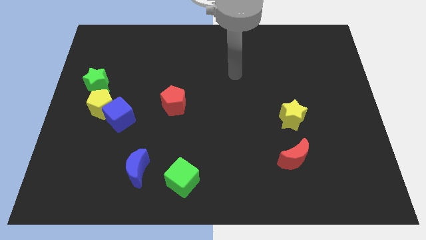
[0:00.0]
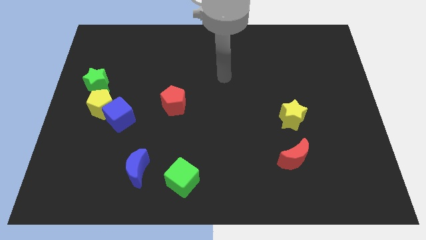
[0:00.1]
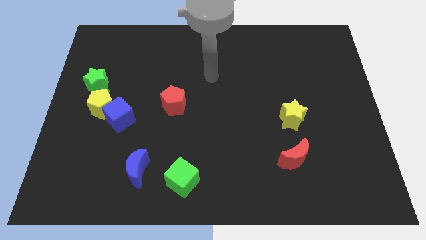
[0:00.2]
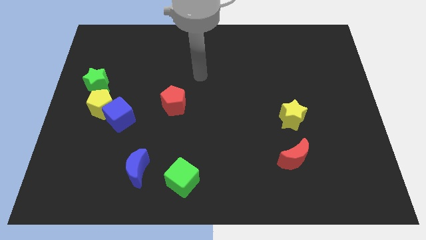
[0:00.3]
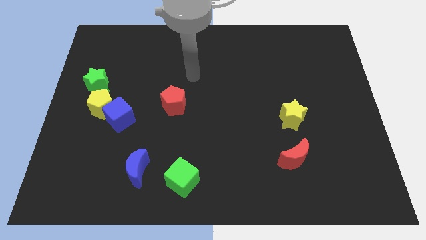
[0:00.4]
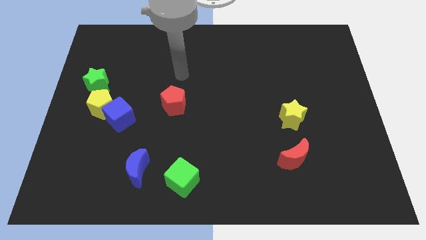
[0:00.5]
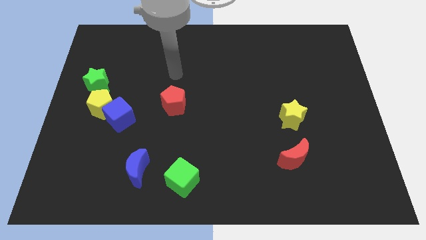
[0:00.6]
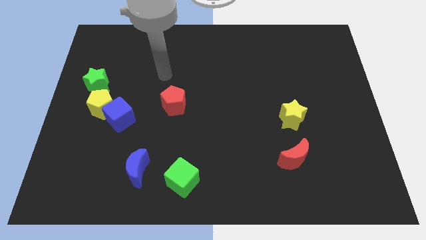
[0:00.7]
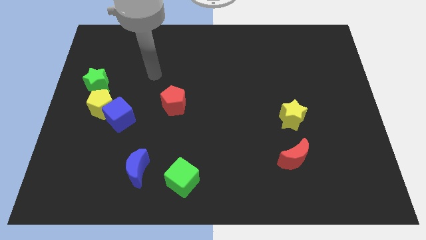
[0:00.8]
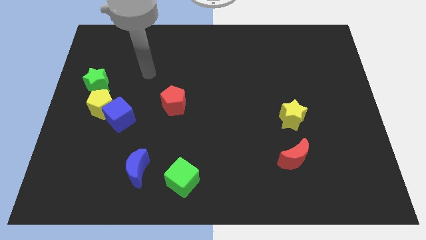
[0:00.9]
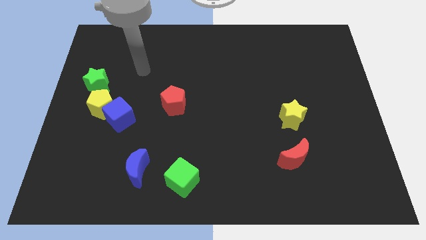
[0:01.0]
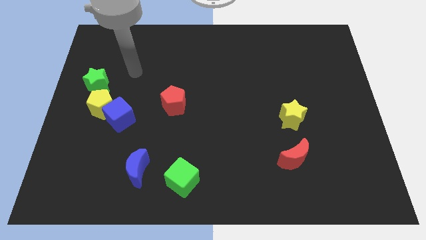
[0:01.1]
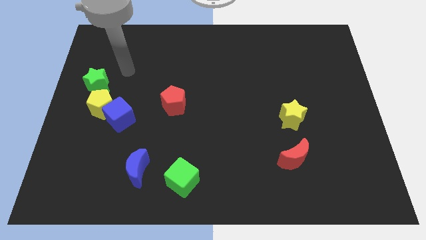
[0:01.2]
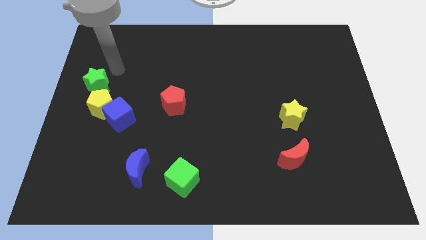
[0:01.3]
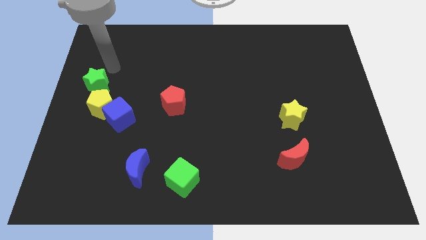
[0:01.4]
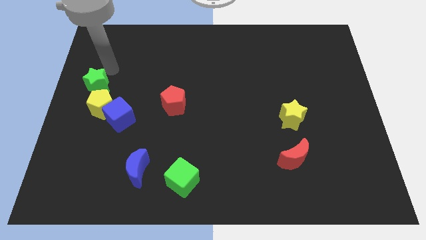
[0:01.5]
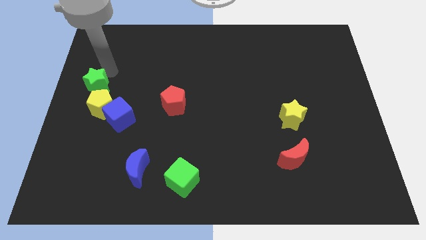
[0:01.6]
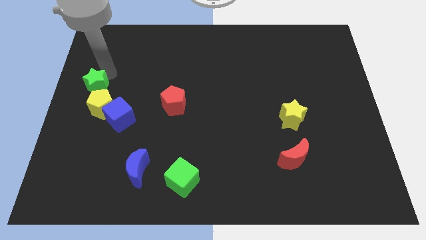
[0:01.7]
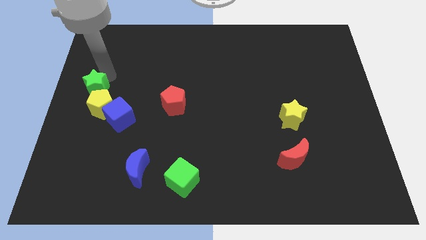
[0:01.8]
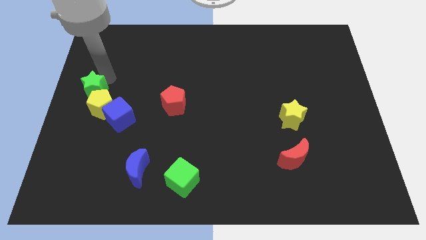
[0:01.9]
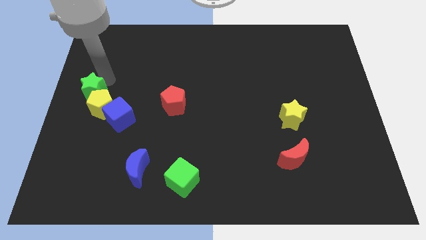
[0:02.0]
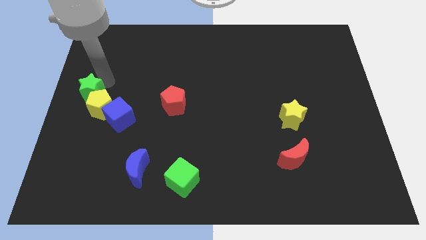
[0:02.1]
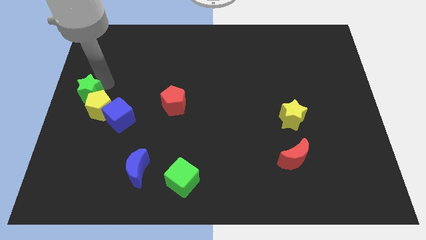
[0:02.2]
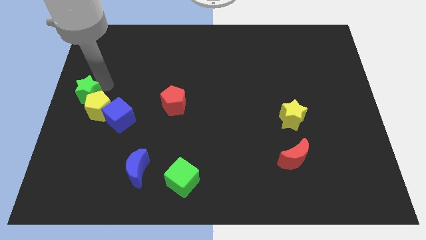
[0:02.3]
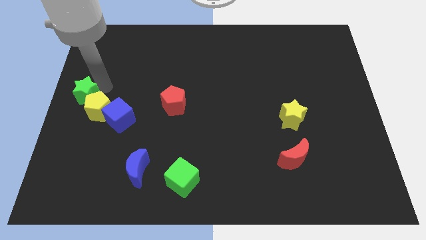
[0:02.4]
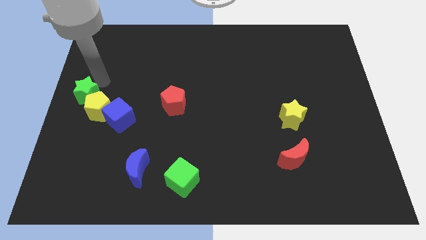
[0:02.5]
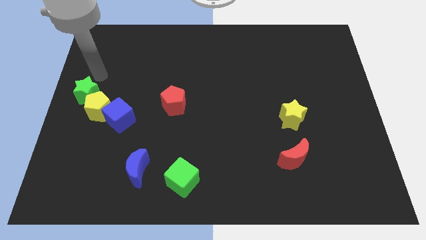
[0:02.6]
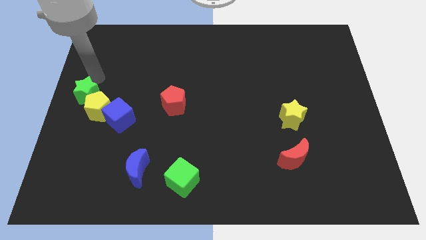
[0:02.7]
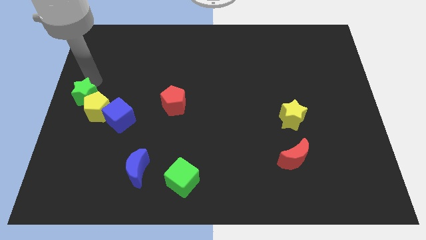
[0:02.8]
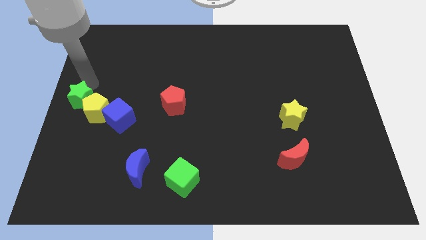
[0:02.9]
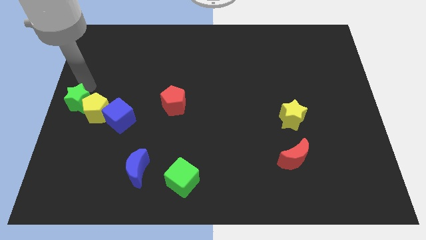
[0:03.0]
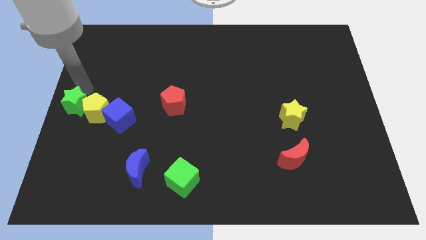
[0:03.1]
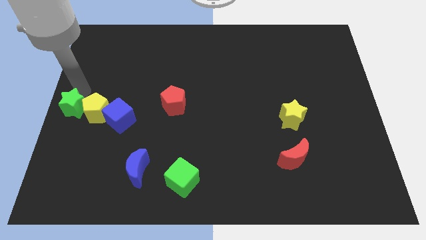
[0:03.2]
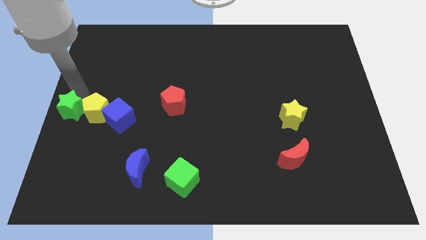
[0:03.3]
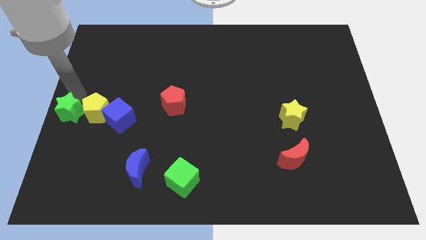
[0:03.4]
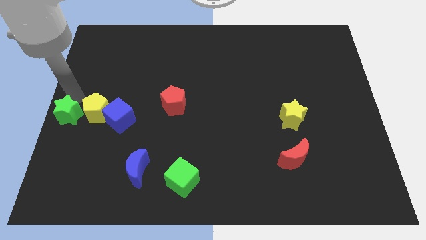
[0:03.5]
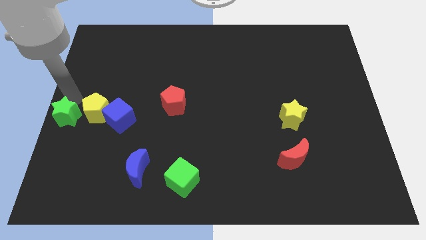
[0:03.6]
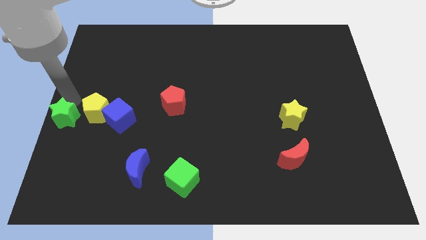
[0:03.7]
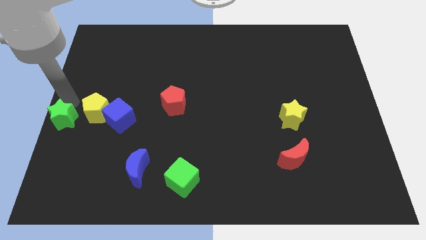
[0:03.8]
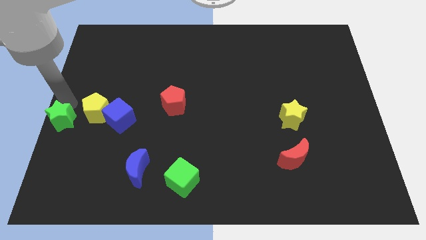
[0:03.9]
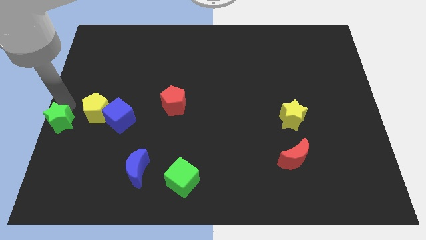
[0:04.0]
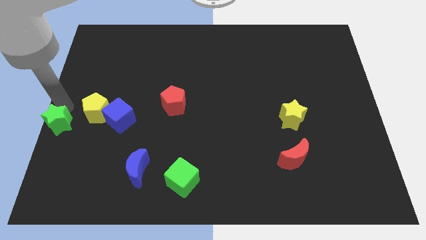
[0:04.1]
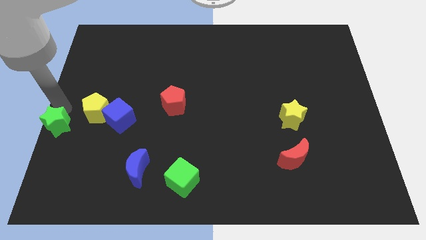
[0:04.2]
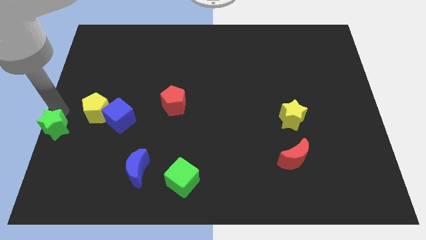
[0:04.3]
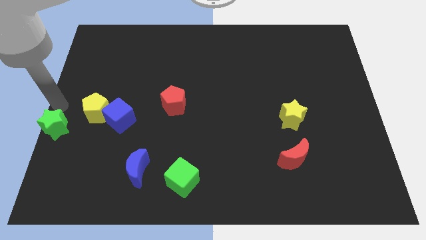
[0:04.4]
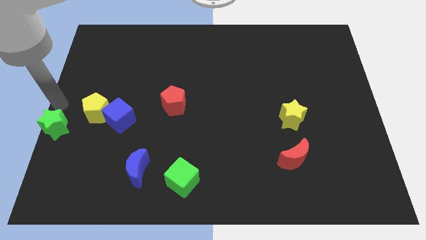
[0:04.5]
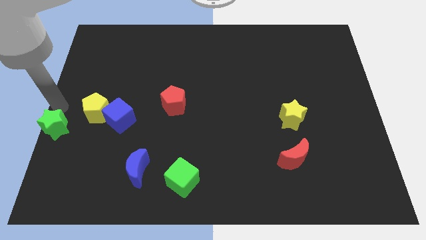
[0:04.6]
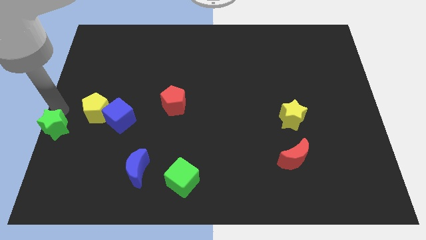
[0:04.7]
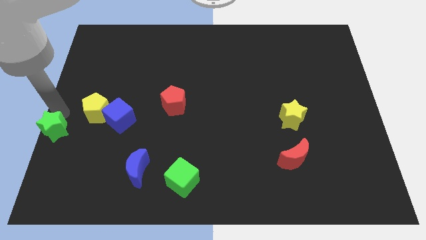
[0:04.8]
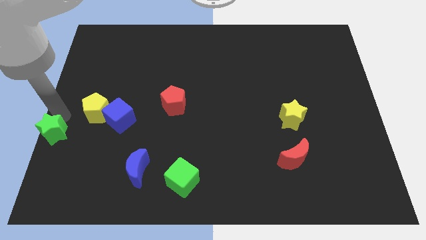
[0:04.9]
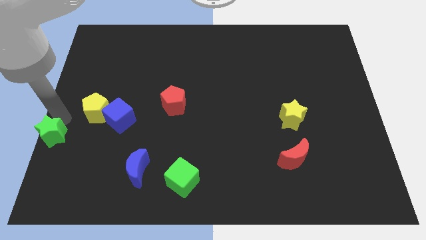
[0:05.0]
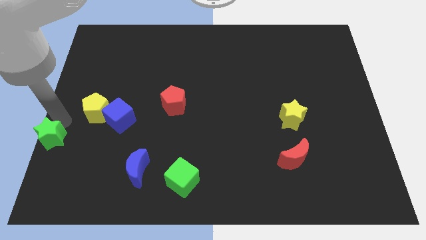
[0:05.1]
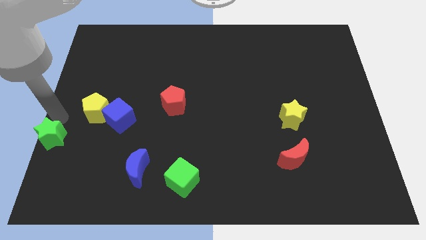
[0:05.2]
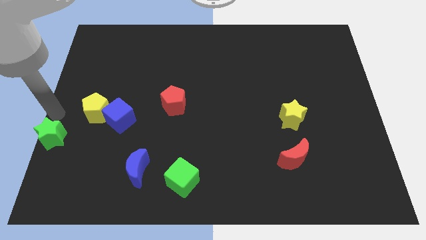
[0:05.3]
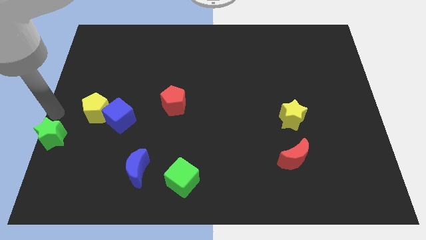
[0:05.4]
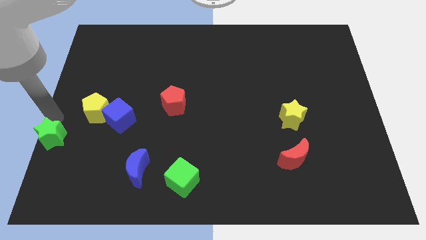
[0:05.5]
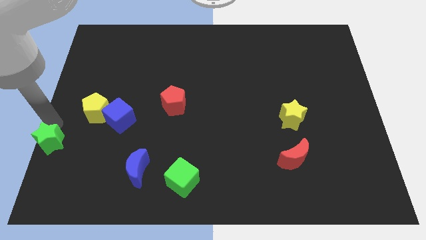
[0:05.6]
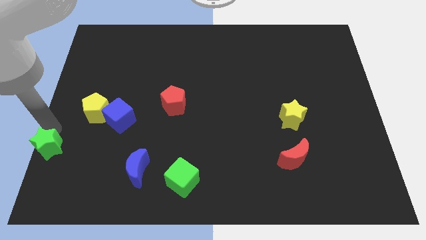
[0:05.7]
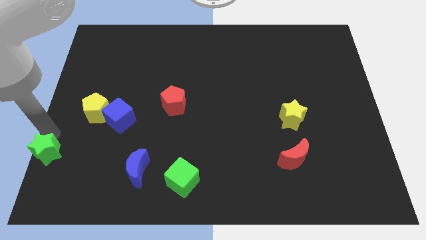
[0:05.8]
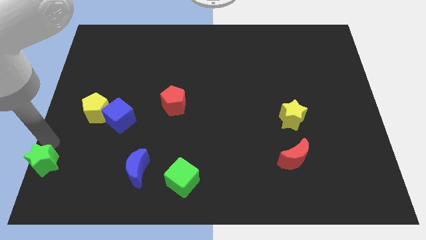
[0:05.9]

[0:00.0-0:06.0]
push the green star to the lower left corner
